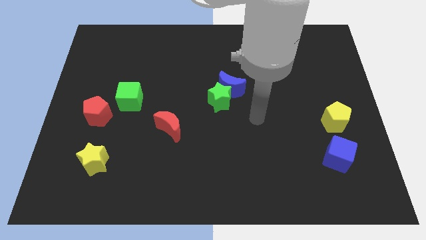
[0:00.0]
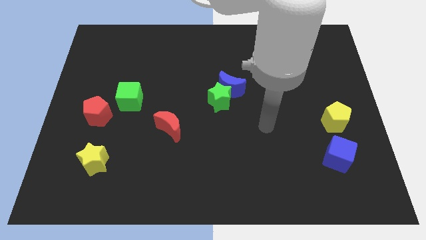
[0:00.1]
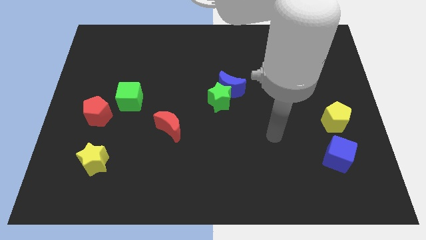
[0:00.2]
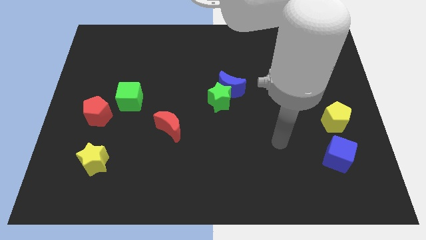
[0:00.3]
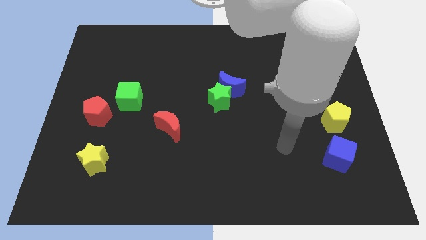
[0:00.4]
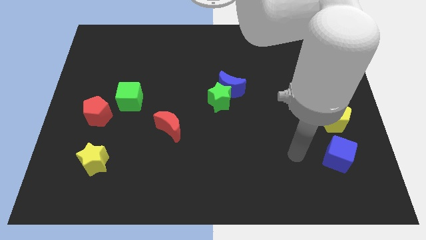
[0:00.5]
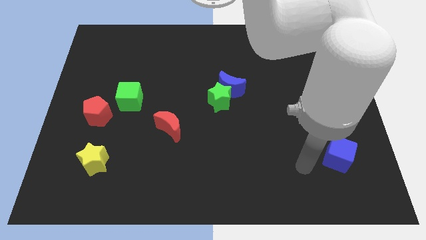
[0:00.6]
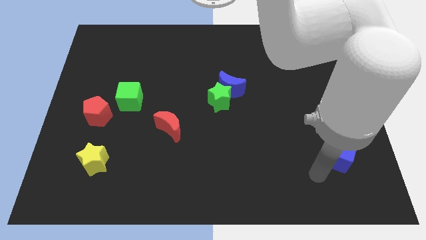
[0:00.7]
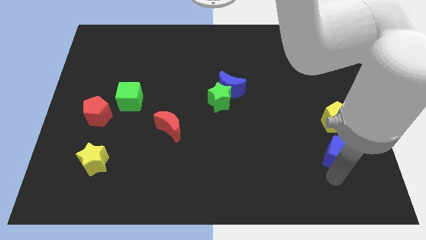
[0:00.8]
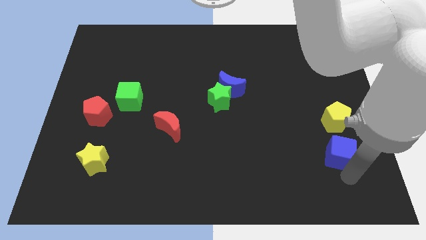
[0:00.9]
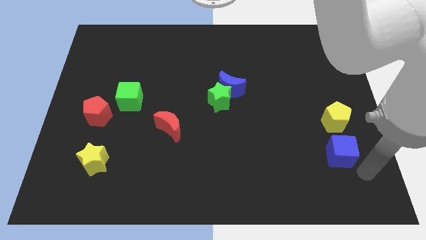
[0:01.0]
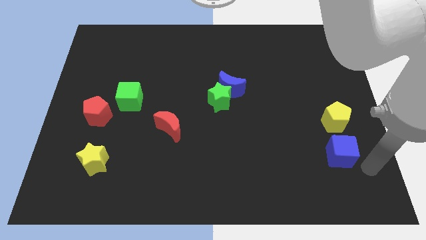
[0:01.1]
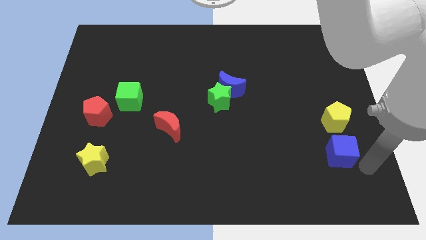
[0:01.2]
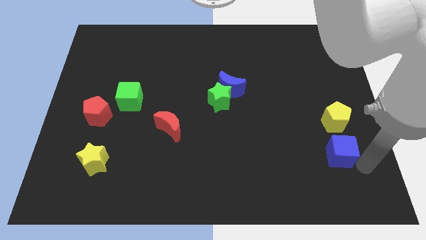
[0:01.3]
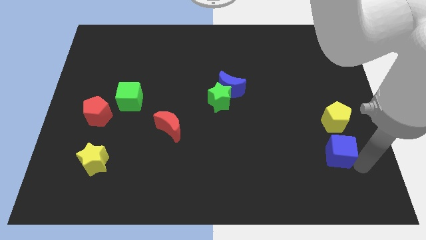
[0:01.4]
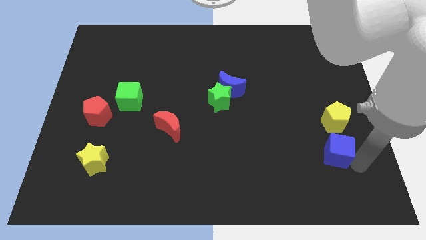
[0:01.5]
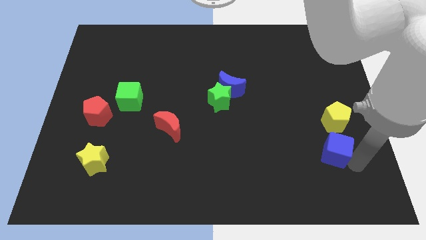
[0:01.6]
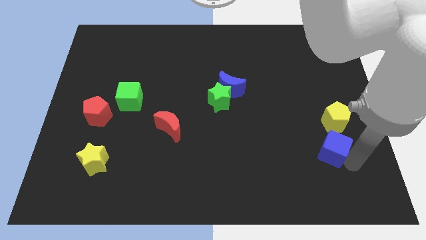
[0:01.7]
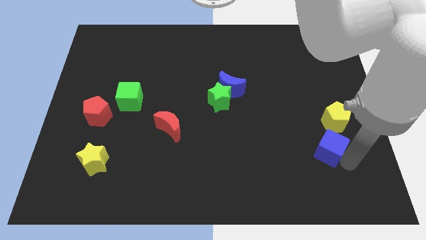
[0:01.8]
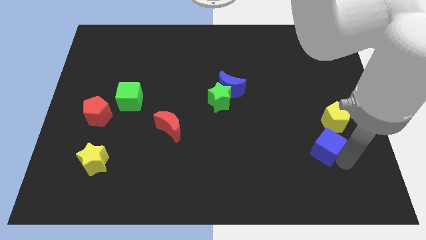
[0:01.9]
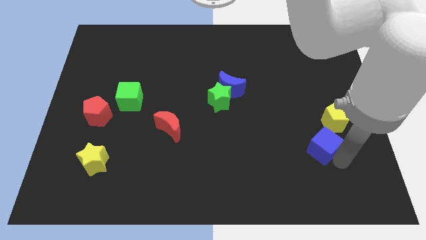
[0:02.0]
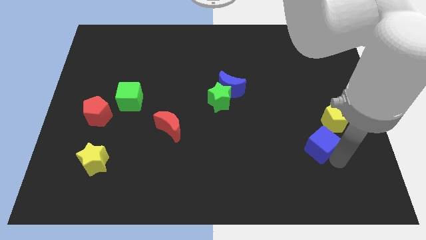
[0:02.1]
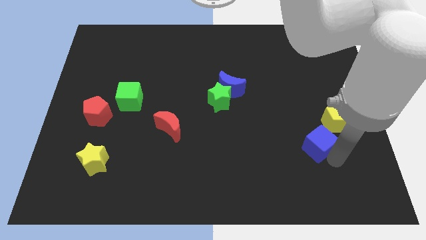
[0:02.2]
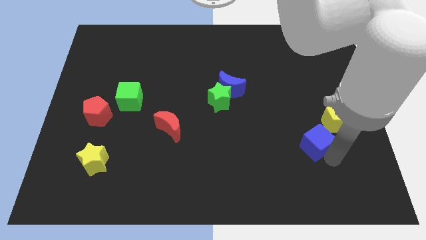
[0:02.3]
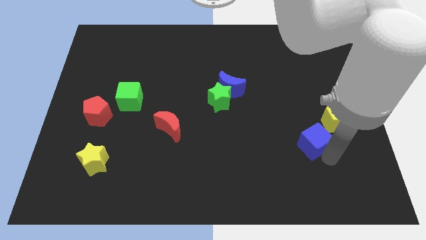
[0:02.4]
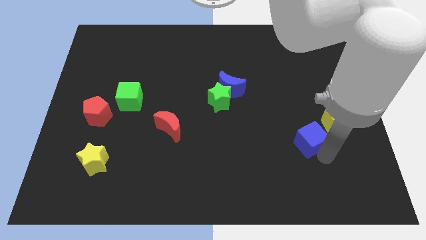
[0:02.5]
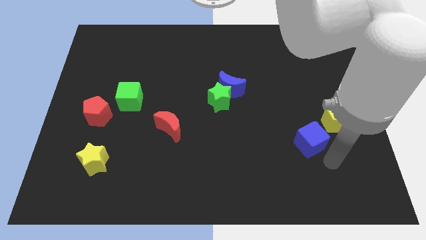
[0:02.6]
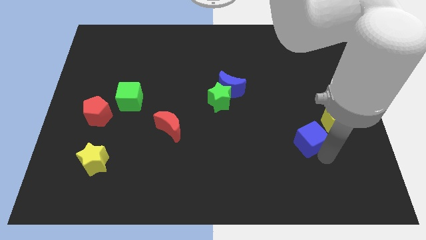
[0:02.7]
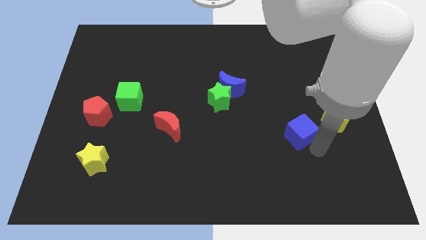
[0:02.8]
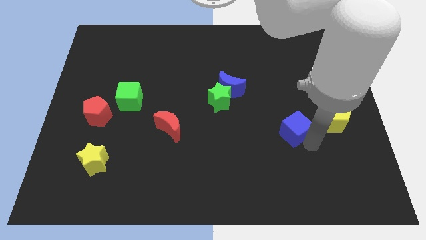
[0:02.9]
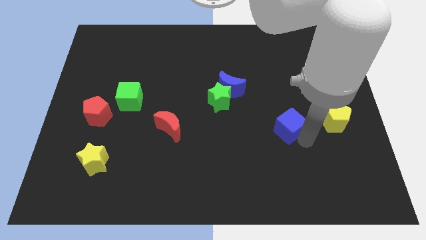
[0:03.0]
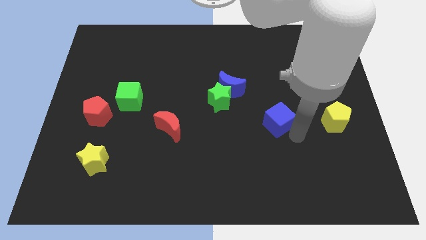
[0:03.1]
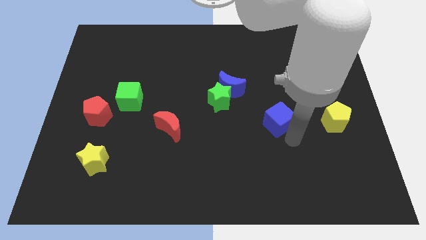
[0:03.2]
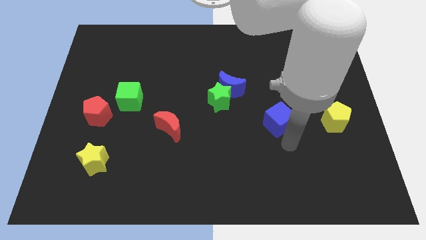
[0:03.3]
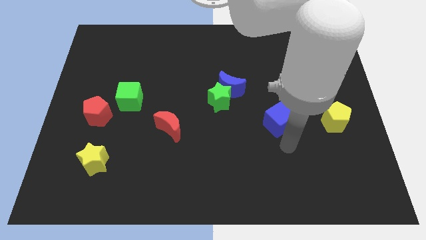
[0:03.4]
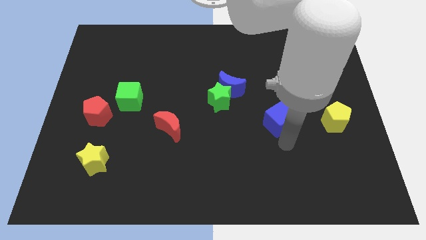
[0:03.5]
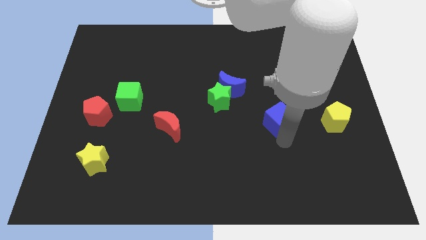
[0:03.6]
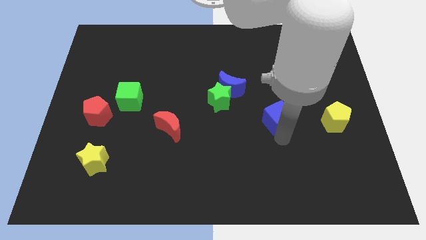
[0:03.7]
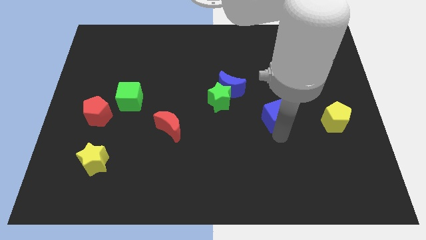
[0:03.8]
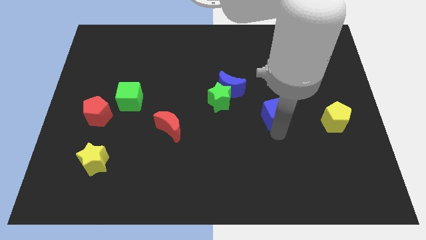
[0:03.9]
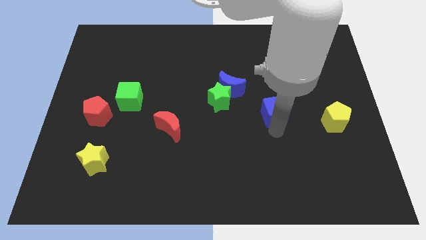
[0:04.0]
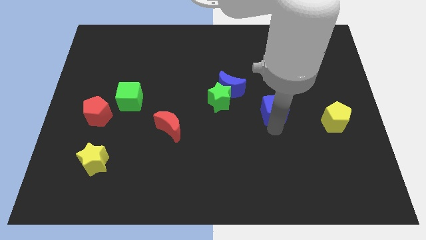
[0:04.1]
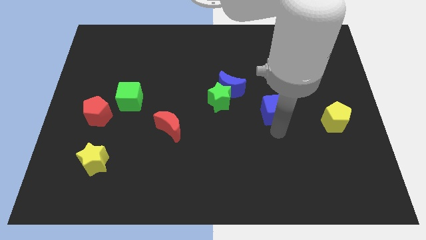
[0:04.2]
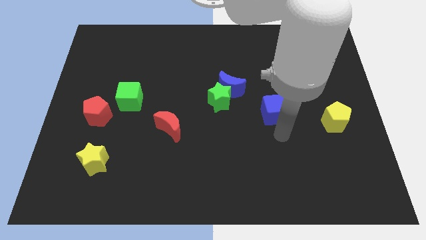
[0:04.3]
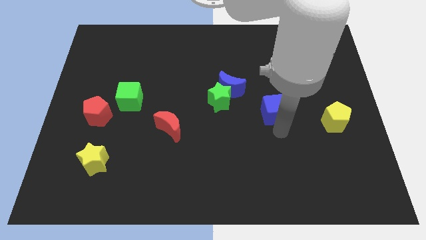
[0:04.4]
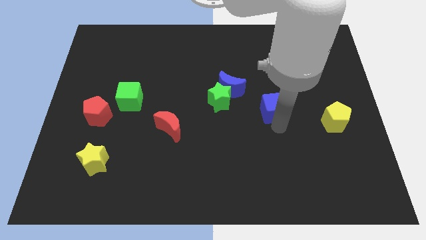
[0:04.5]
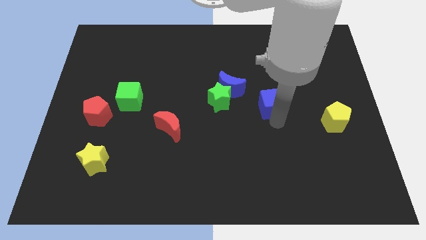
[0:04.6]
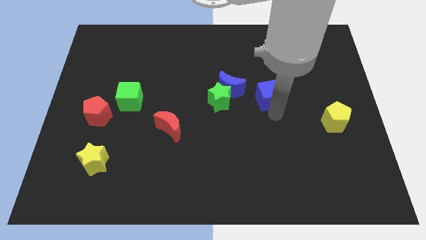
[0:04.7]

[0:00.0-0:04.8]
push the blue cube upwards and to the left

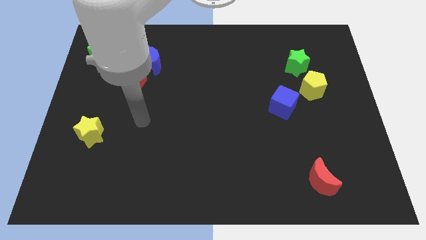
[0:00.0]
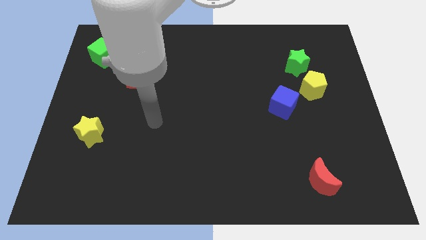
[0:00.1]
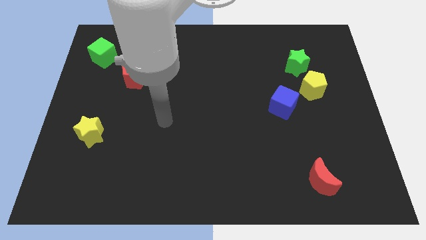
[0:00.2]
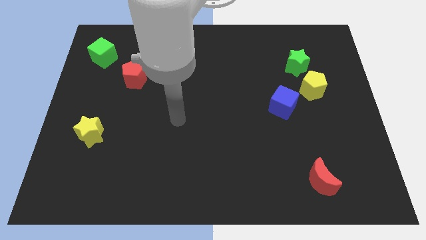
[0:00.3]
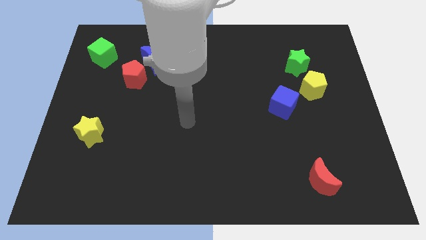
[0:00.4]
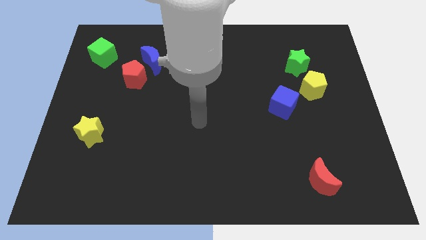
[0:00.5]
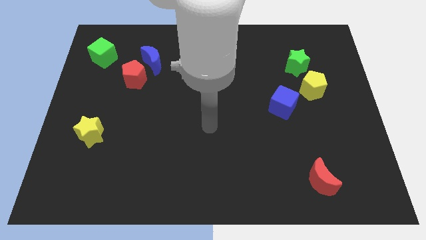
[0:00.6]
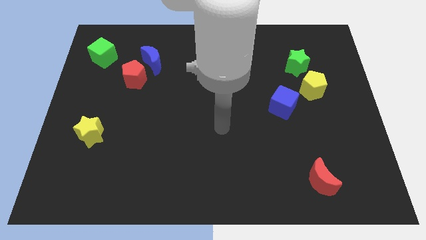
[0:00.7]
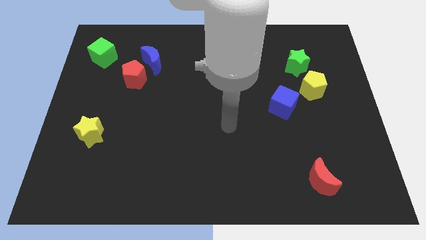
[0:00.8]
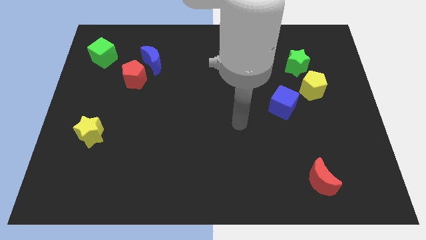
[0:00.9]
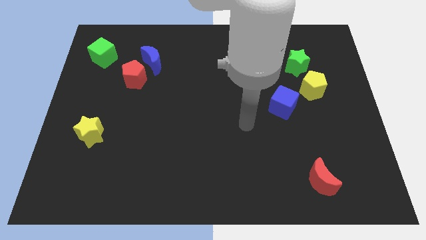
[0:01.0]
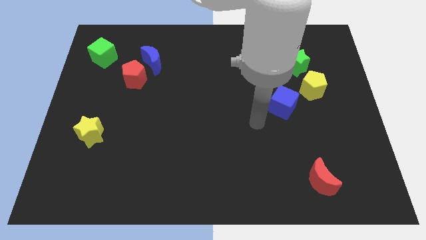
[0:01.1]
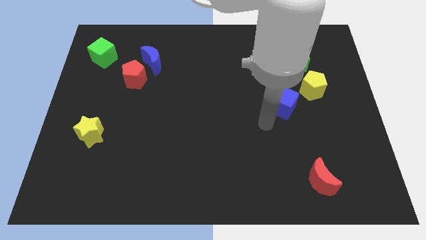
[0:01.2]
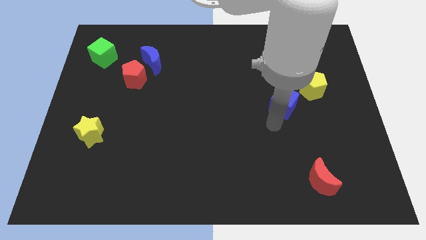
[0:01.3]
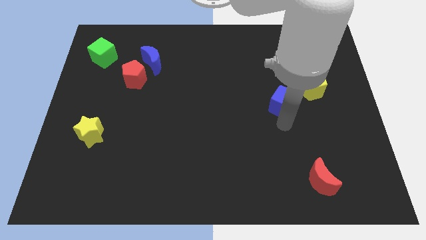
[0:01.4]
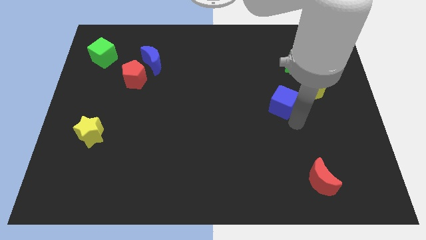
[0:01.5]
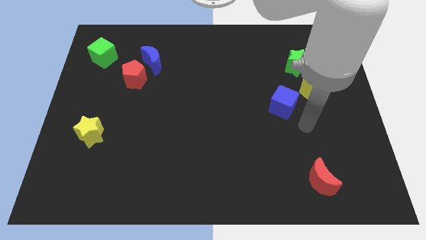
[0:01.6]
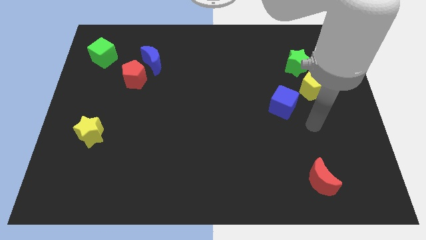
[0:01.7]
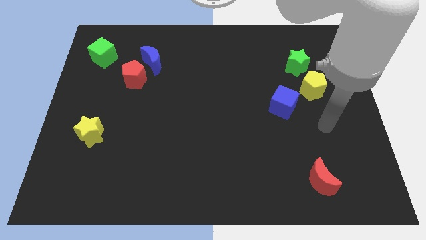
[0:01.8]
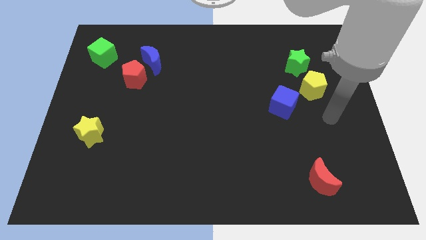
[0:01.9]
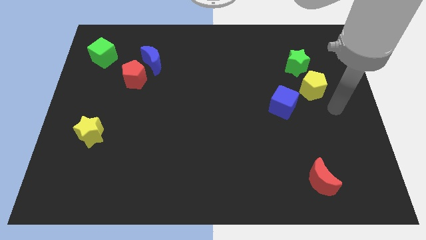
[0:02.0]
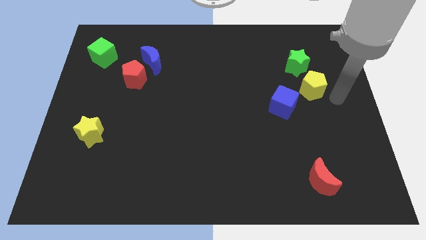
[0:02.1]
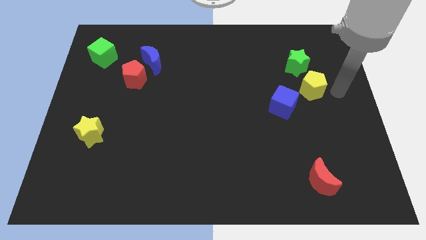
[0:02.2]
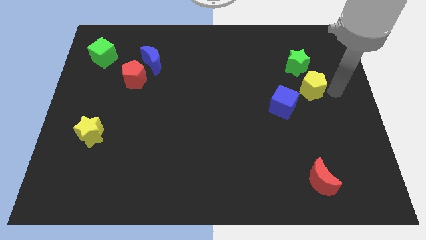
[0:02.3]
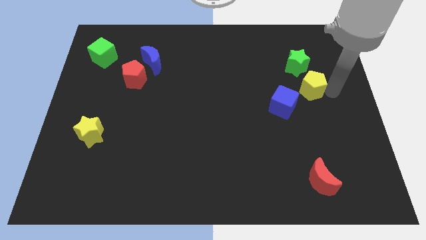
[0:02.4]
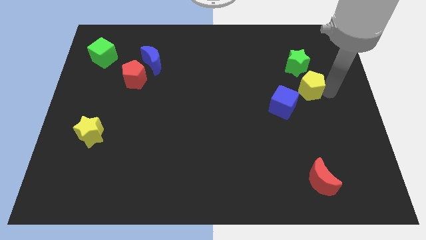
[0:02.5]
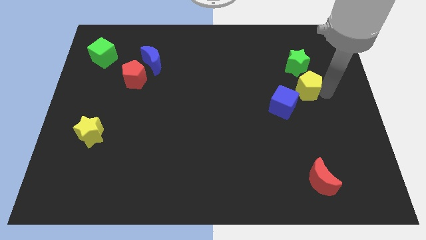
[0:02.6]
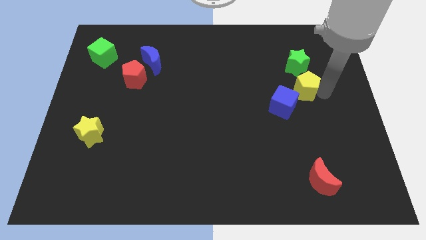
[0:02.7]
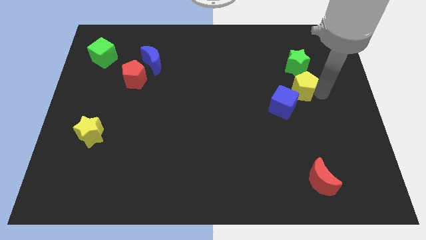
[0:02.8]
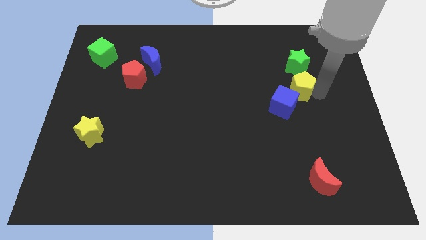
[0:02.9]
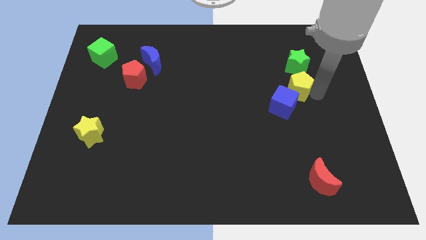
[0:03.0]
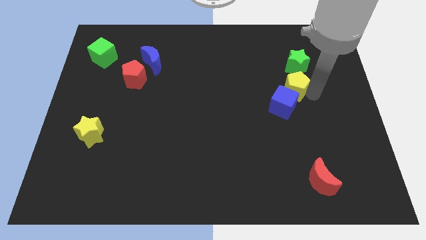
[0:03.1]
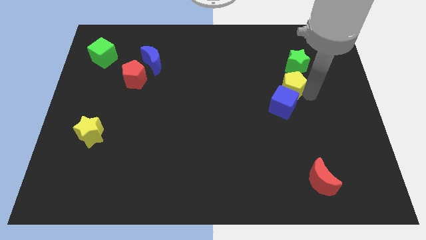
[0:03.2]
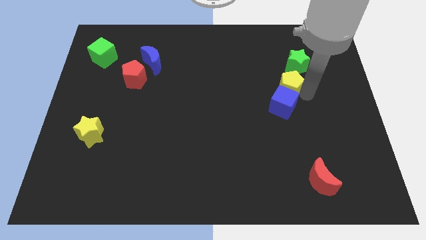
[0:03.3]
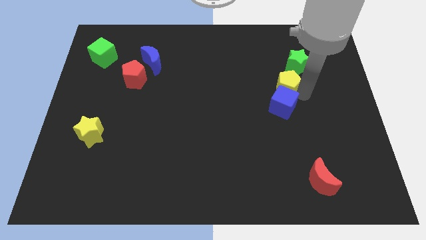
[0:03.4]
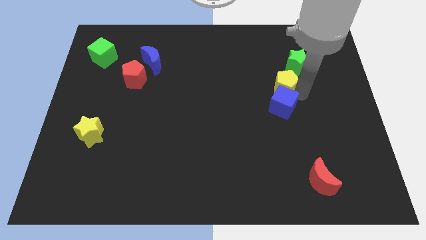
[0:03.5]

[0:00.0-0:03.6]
slightly move the yellow pentagon to the left
